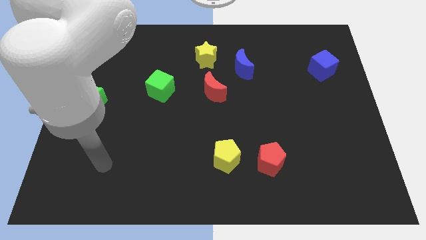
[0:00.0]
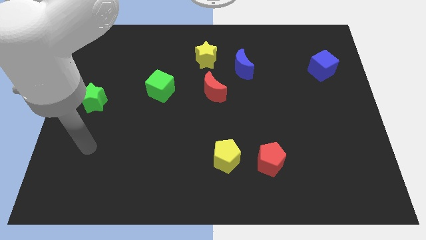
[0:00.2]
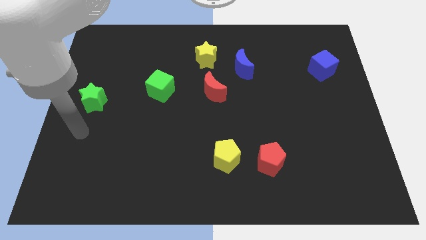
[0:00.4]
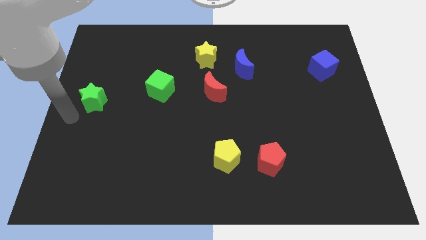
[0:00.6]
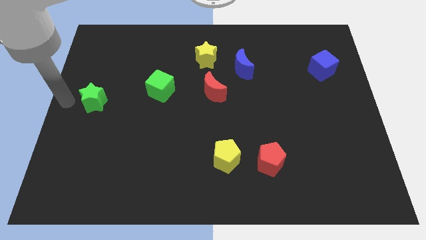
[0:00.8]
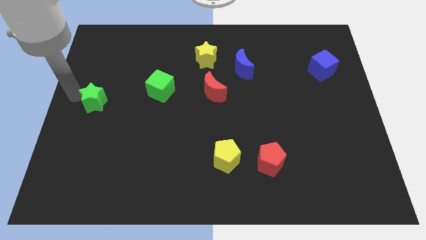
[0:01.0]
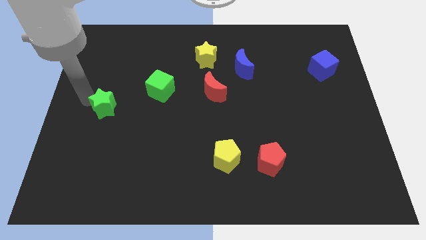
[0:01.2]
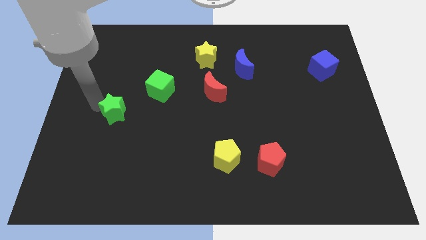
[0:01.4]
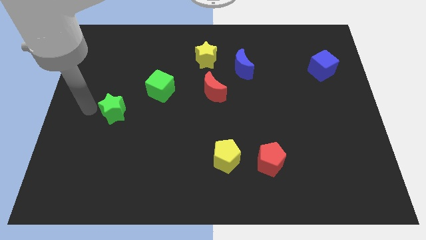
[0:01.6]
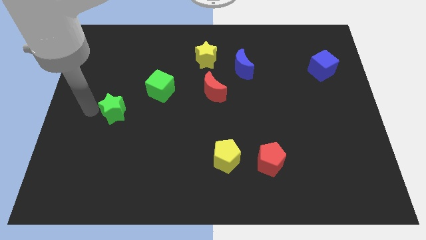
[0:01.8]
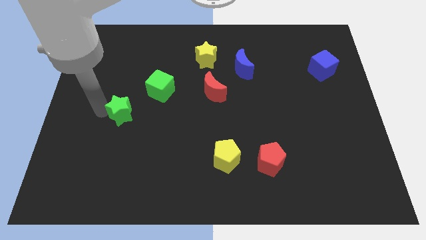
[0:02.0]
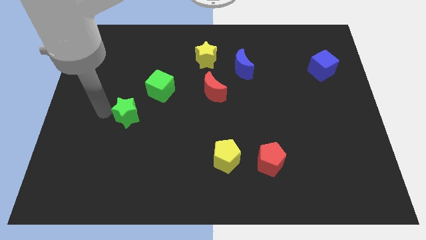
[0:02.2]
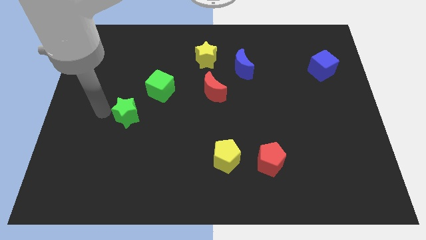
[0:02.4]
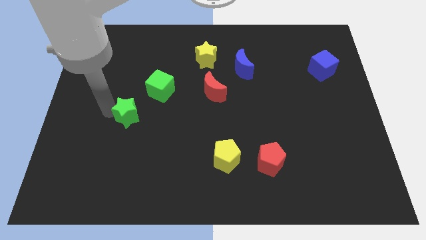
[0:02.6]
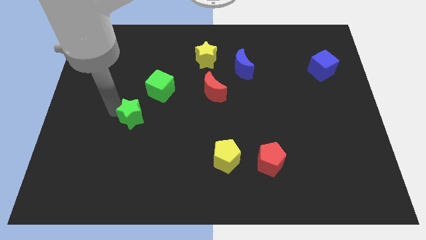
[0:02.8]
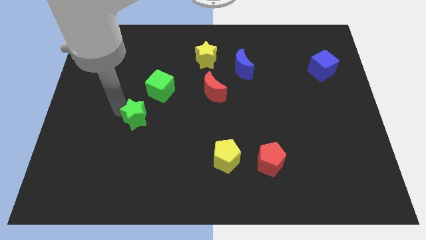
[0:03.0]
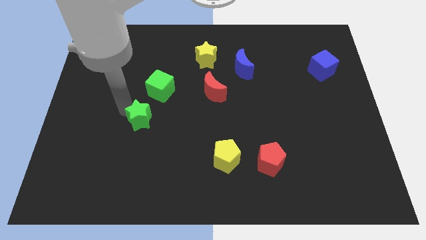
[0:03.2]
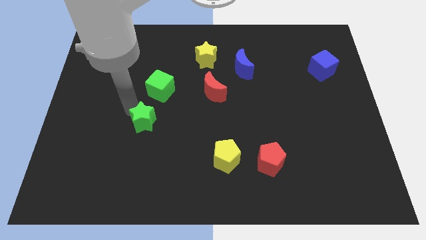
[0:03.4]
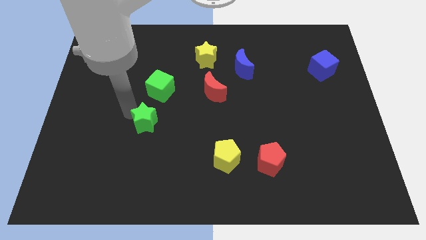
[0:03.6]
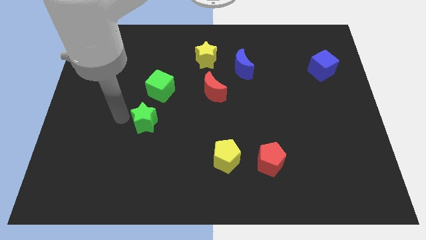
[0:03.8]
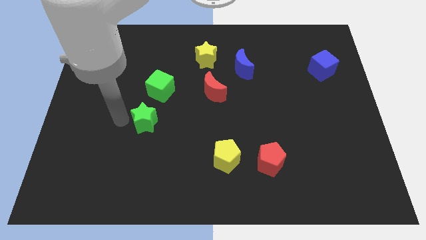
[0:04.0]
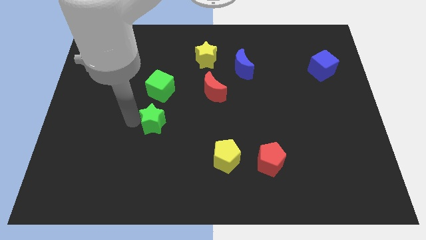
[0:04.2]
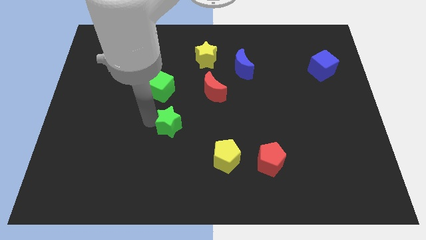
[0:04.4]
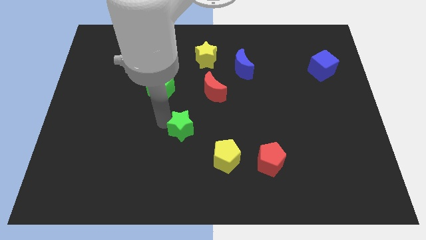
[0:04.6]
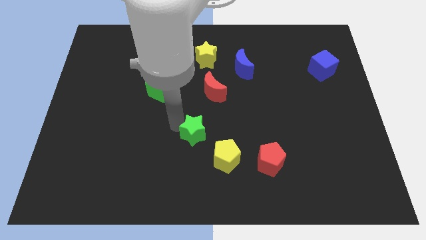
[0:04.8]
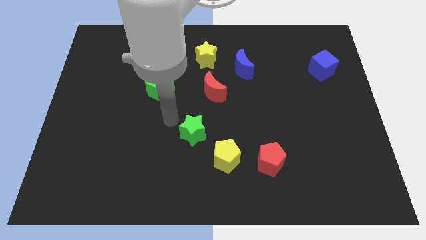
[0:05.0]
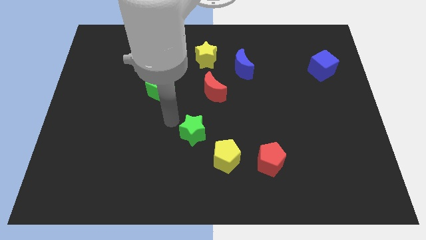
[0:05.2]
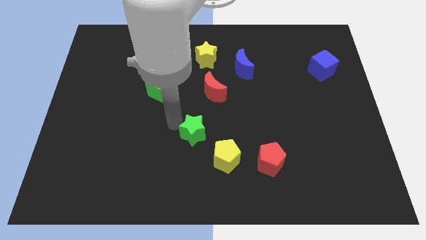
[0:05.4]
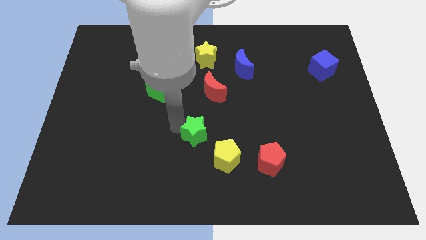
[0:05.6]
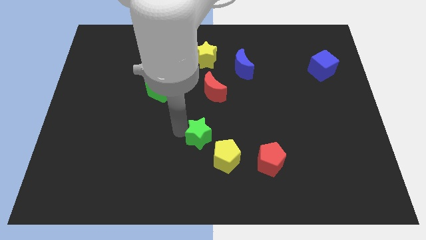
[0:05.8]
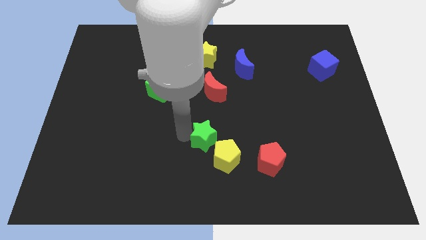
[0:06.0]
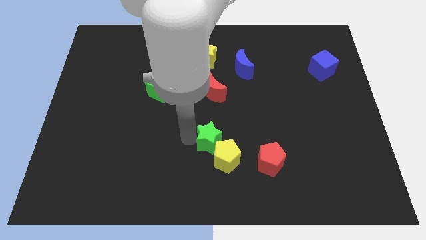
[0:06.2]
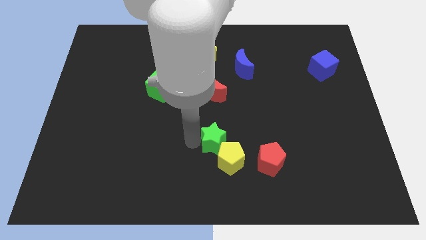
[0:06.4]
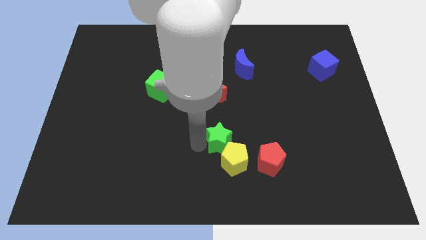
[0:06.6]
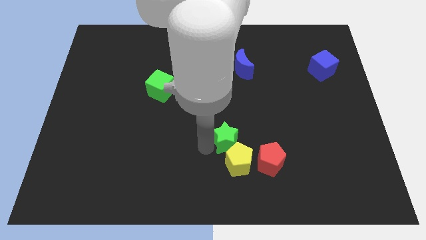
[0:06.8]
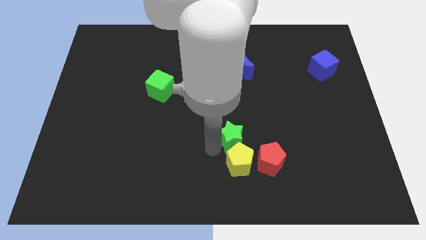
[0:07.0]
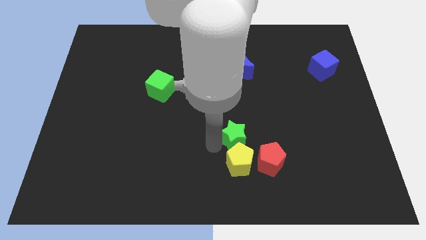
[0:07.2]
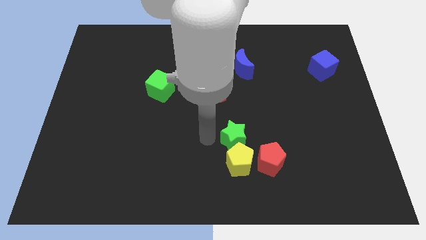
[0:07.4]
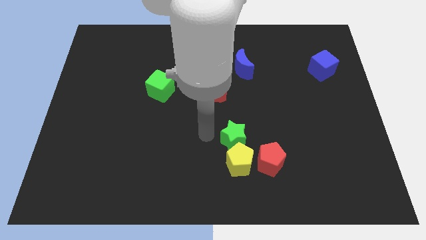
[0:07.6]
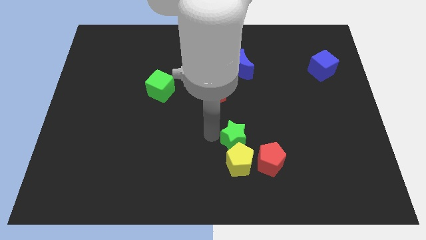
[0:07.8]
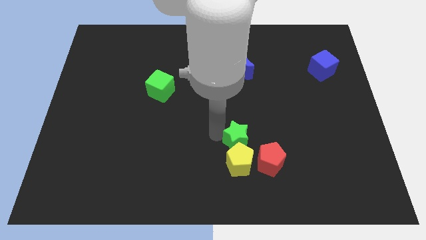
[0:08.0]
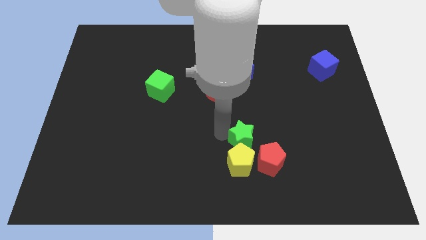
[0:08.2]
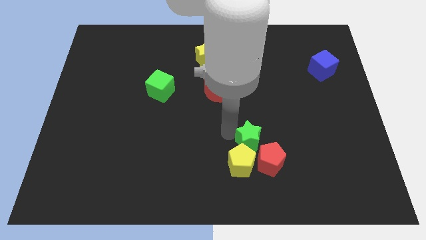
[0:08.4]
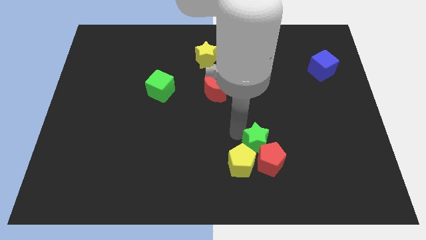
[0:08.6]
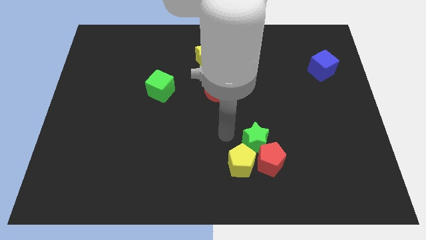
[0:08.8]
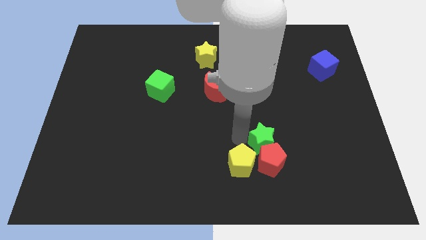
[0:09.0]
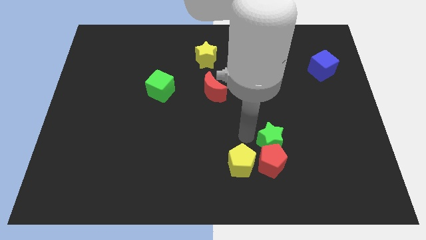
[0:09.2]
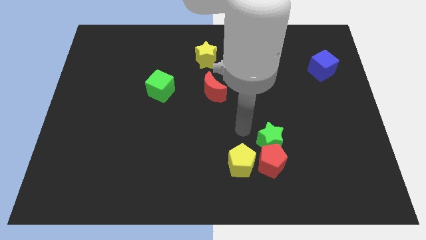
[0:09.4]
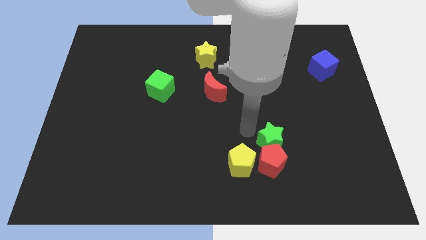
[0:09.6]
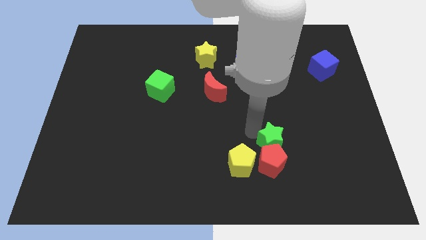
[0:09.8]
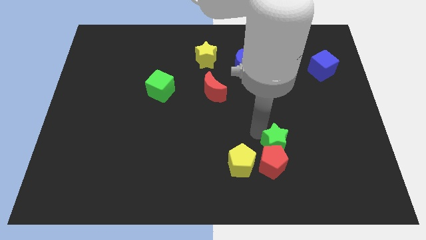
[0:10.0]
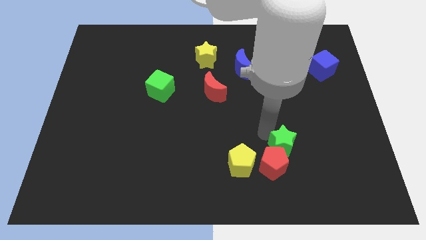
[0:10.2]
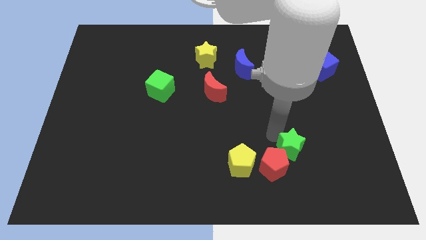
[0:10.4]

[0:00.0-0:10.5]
slide the green star right of the red pentagon

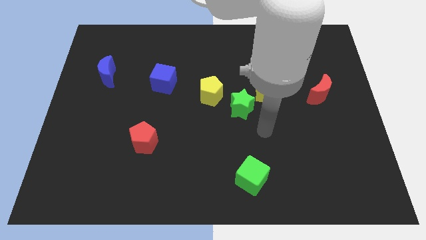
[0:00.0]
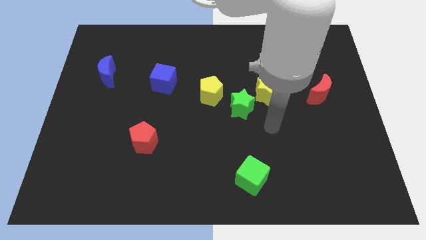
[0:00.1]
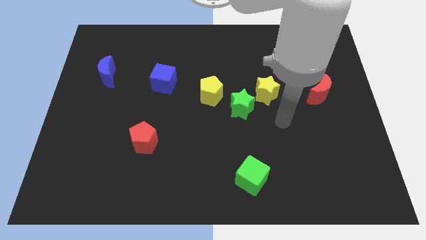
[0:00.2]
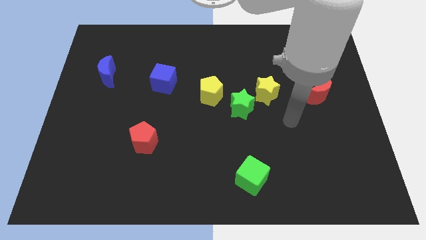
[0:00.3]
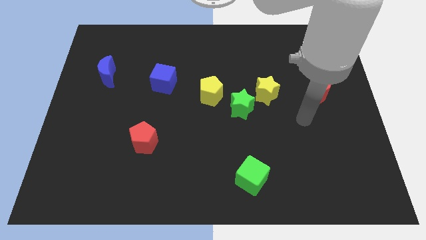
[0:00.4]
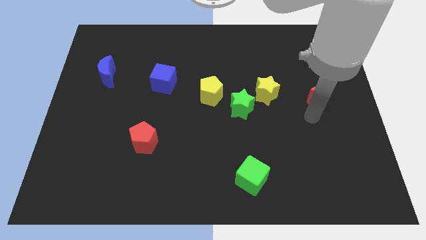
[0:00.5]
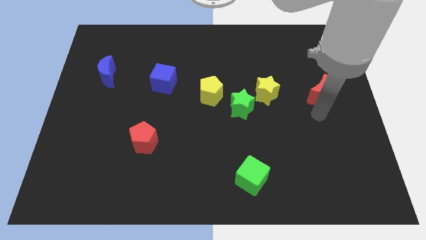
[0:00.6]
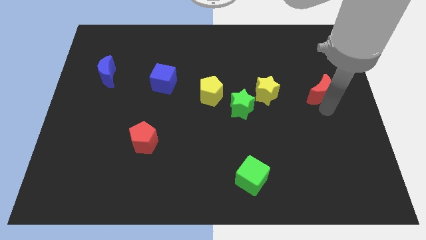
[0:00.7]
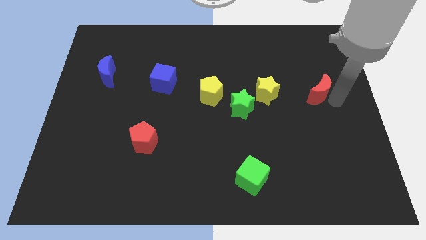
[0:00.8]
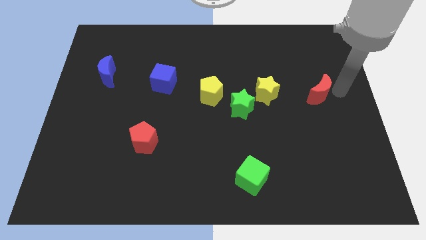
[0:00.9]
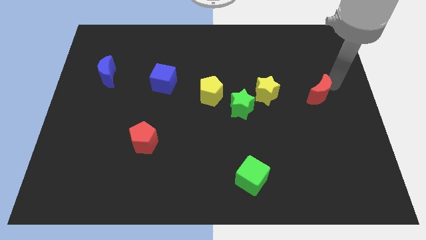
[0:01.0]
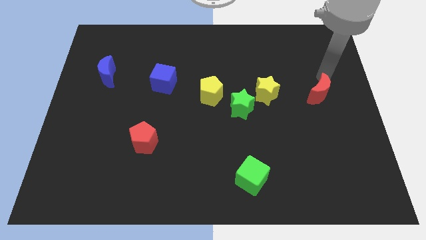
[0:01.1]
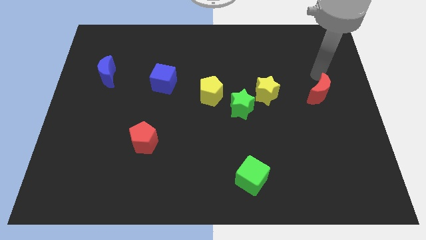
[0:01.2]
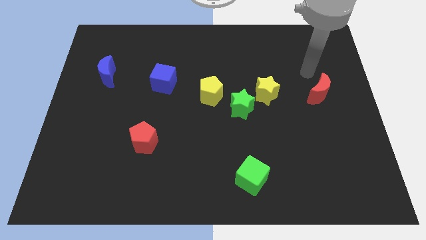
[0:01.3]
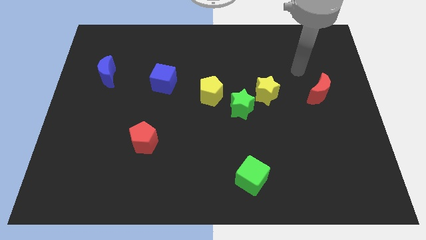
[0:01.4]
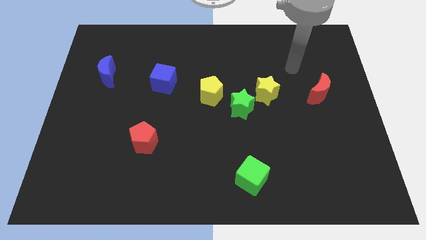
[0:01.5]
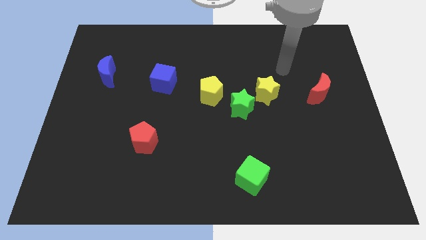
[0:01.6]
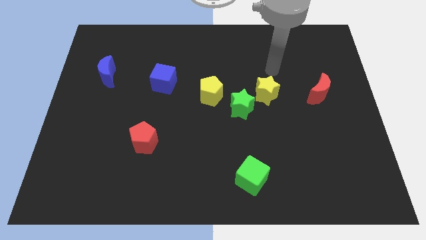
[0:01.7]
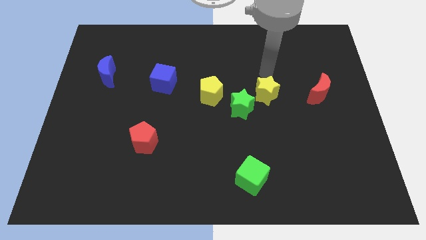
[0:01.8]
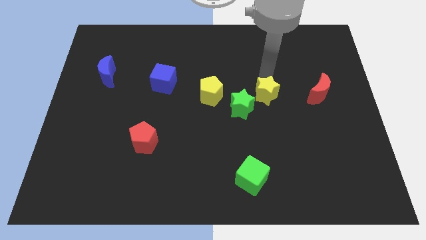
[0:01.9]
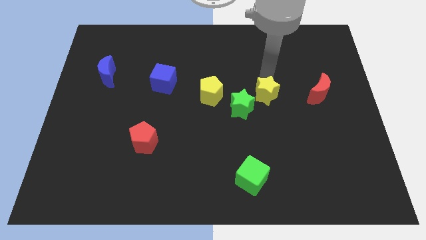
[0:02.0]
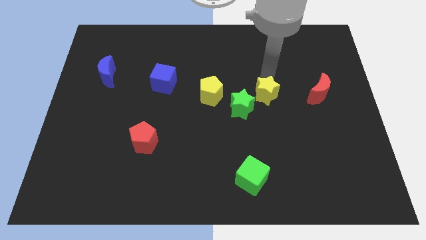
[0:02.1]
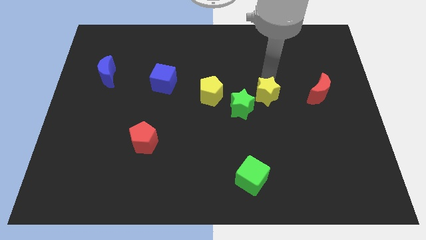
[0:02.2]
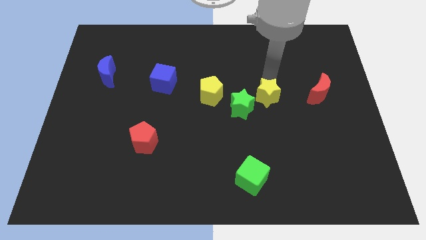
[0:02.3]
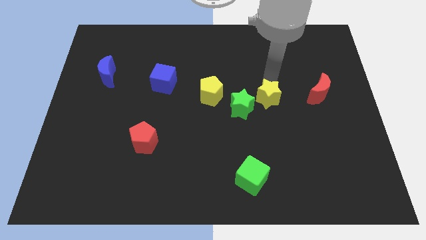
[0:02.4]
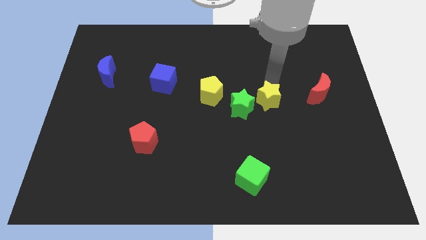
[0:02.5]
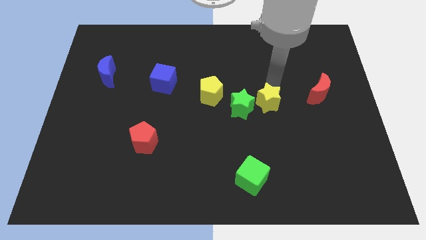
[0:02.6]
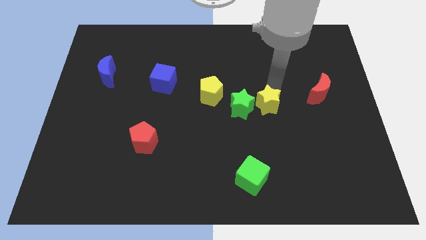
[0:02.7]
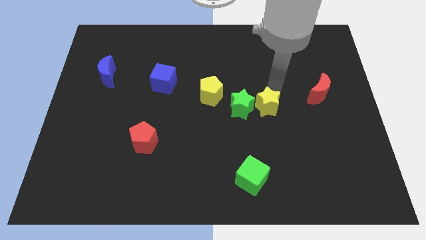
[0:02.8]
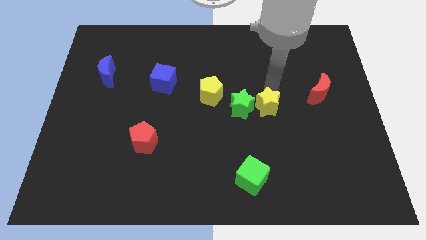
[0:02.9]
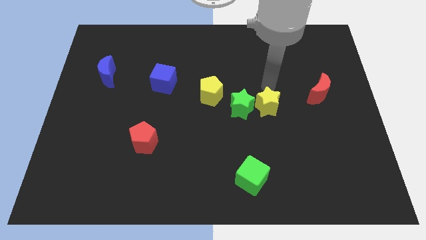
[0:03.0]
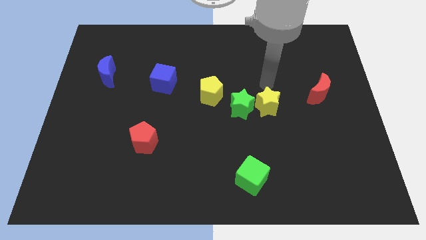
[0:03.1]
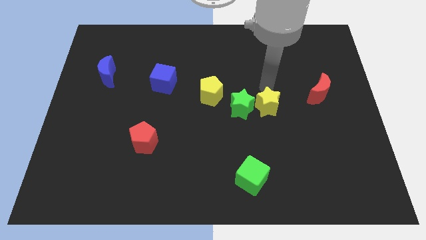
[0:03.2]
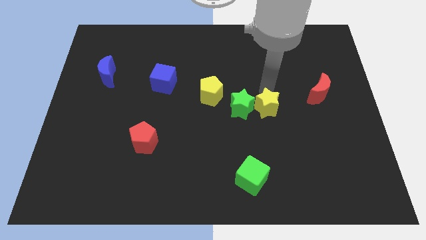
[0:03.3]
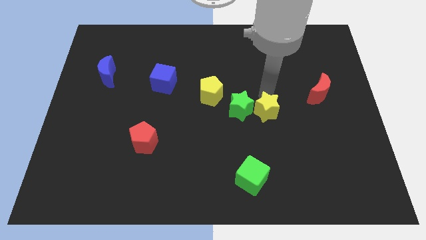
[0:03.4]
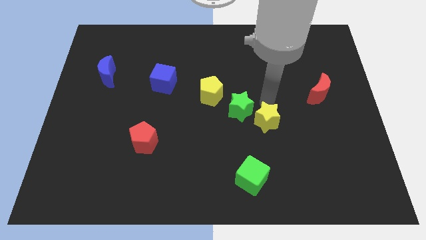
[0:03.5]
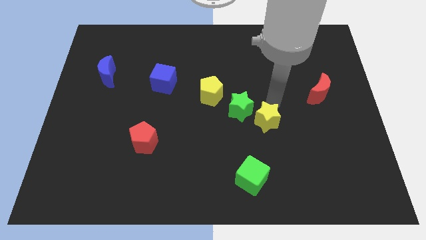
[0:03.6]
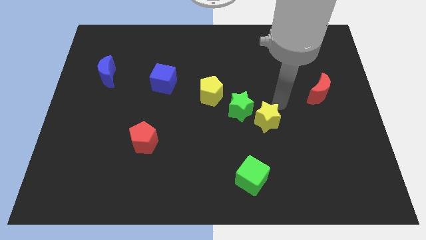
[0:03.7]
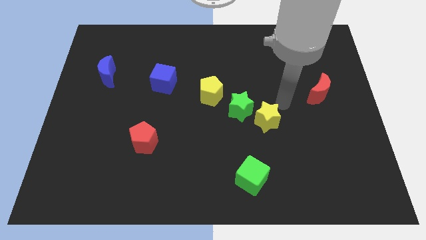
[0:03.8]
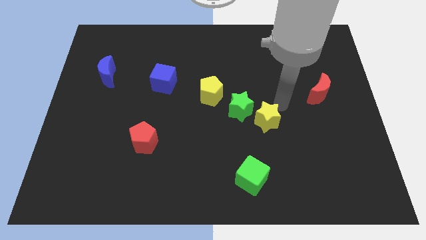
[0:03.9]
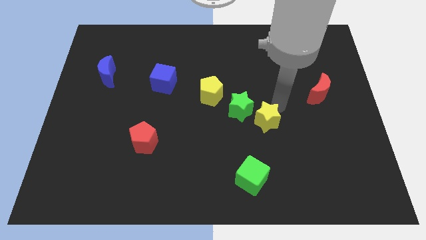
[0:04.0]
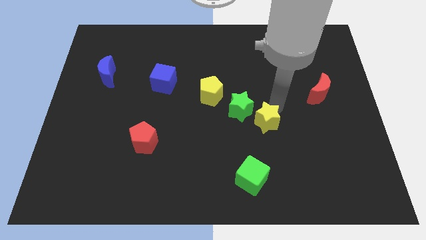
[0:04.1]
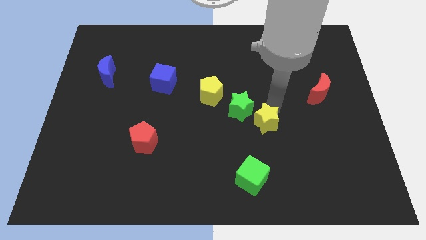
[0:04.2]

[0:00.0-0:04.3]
slide the yellow star above the green cube
